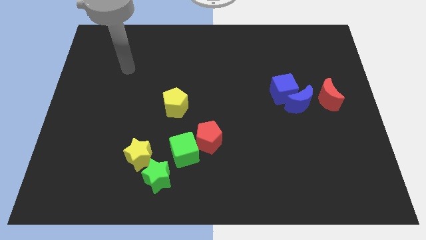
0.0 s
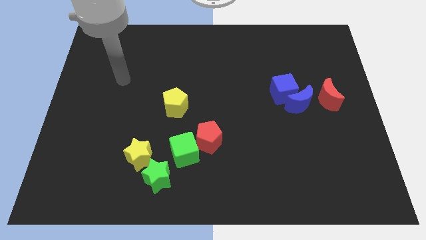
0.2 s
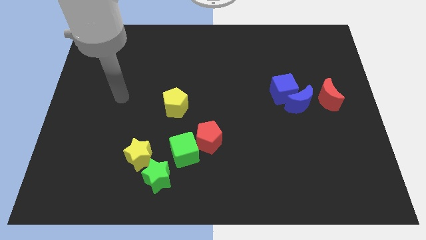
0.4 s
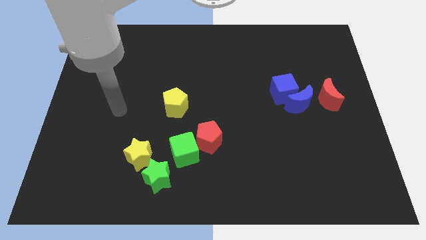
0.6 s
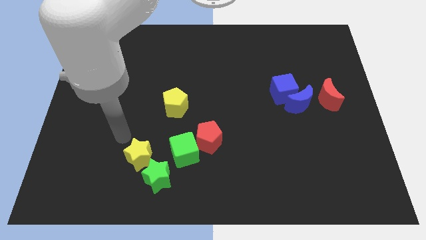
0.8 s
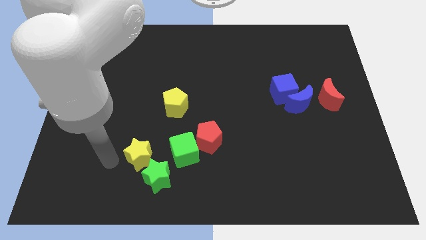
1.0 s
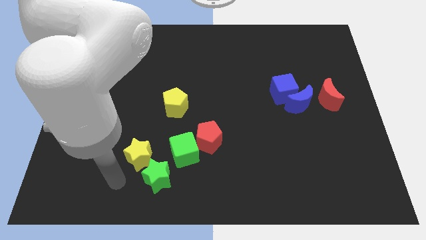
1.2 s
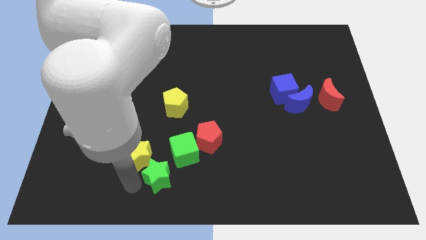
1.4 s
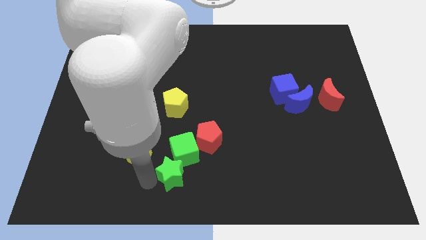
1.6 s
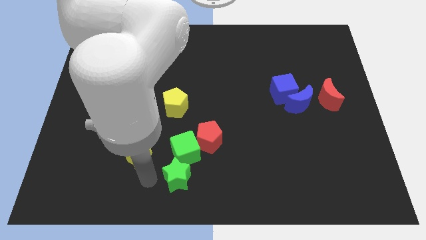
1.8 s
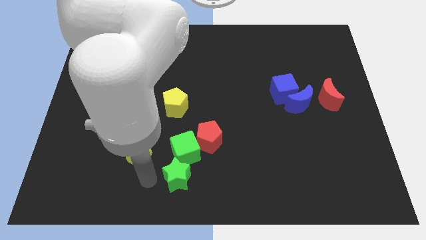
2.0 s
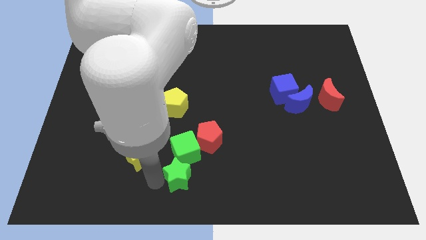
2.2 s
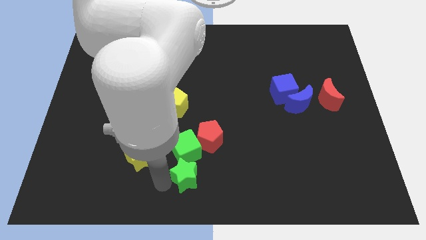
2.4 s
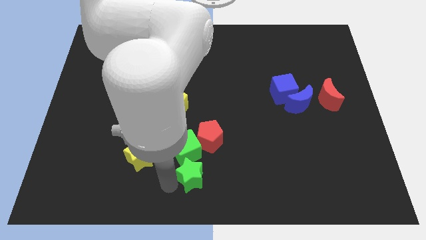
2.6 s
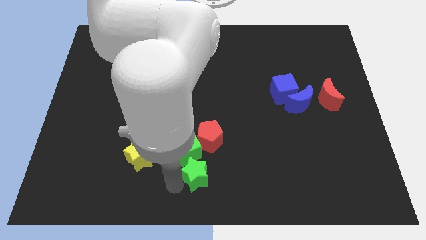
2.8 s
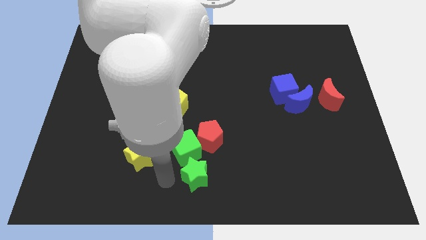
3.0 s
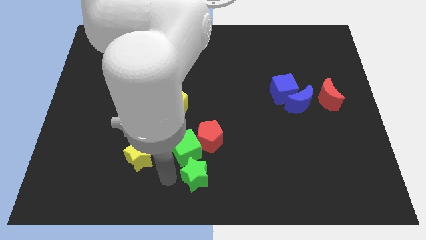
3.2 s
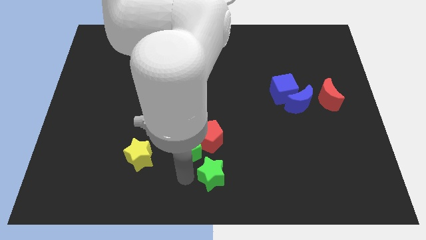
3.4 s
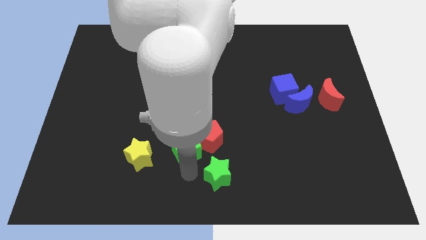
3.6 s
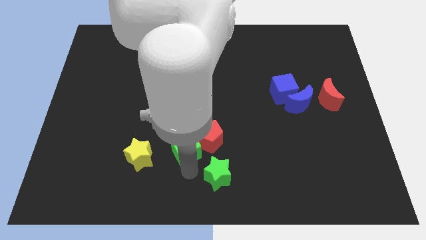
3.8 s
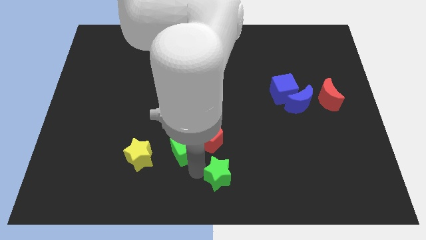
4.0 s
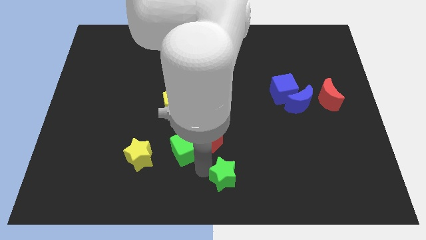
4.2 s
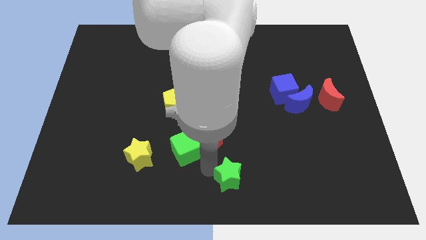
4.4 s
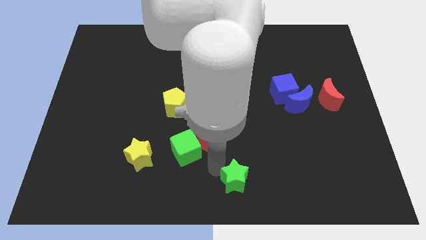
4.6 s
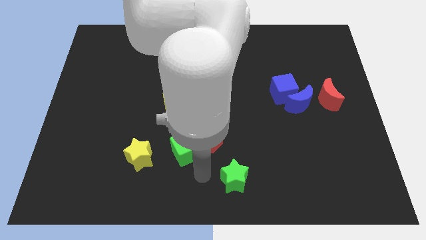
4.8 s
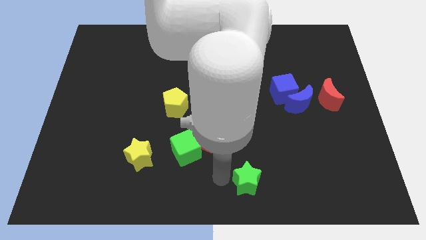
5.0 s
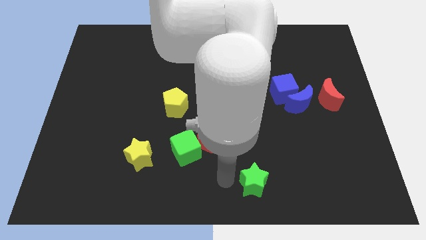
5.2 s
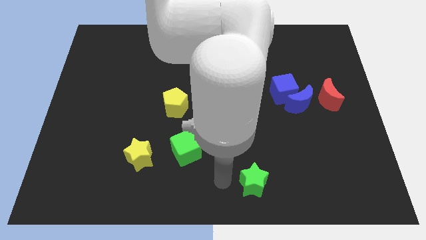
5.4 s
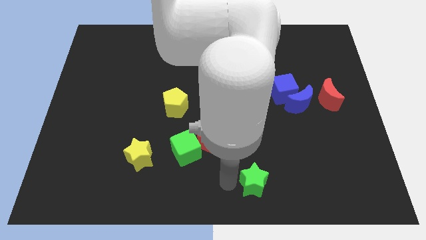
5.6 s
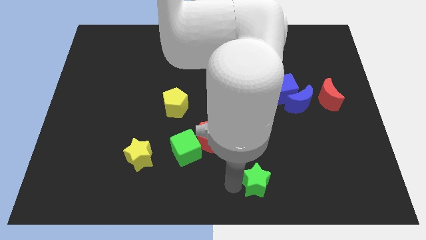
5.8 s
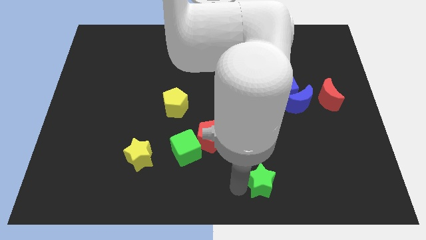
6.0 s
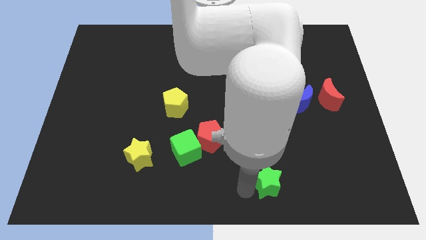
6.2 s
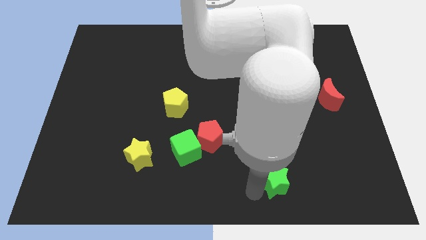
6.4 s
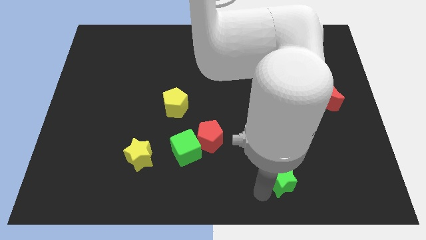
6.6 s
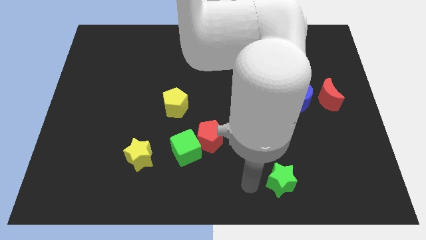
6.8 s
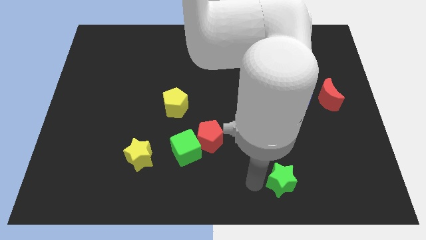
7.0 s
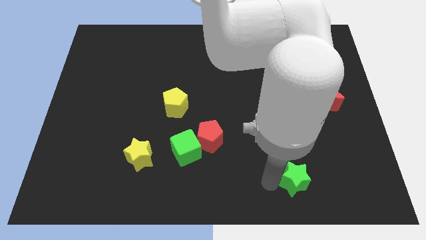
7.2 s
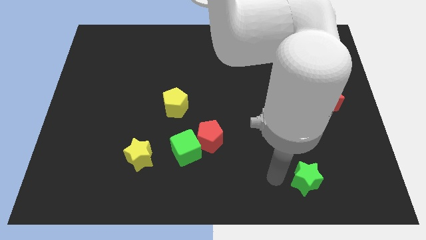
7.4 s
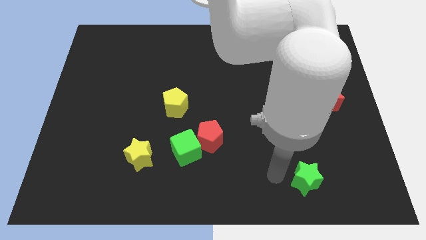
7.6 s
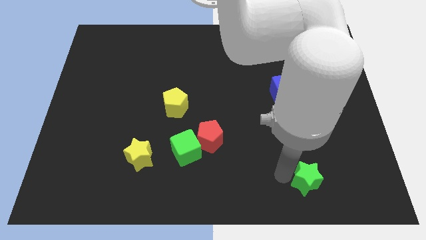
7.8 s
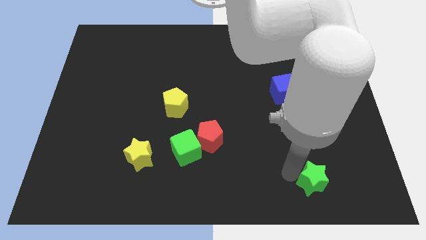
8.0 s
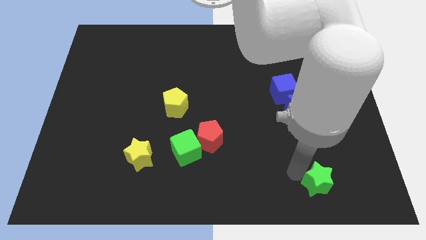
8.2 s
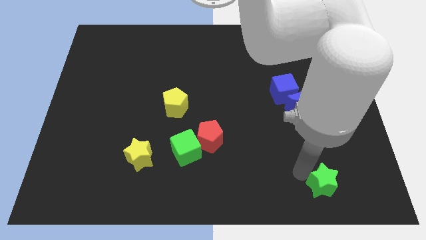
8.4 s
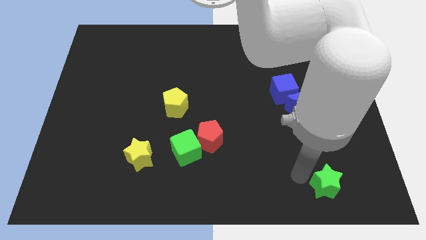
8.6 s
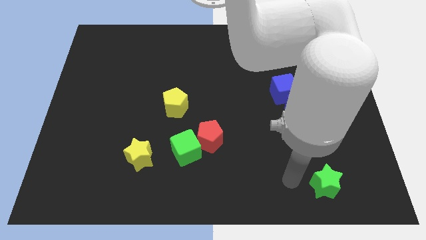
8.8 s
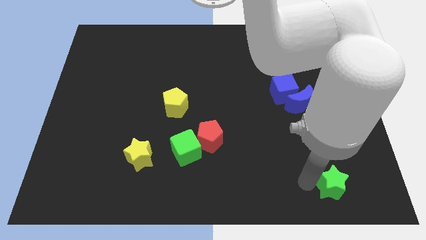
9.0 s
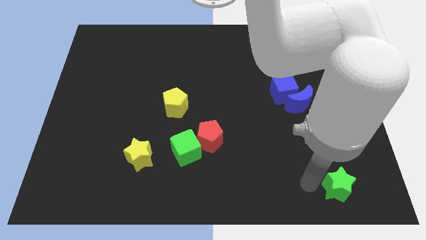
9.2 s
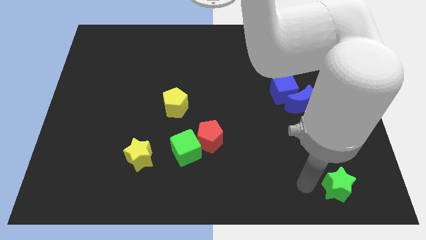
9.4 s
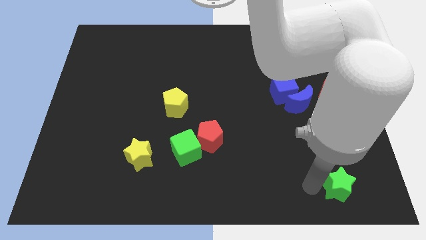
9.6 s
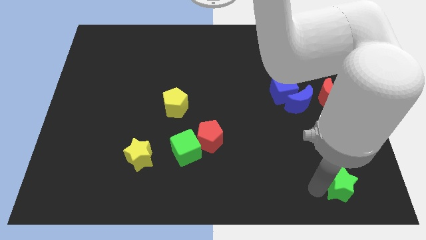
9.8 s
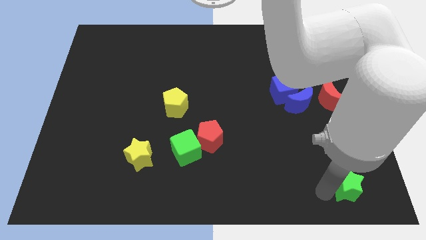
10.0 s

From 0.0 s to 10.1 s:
put the green star to the bottom right corner

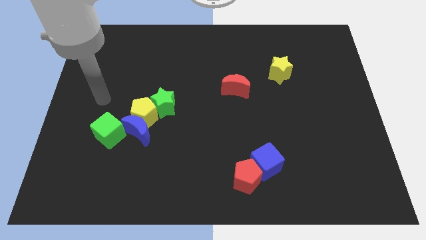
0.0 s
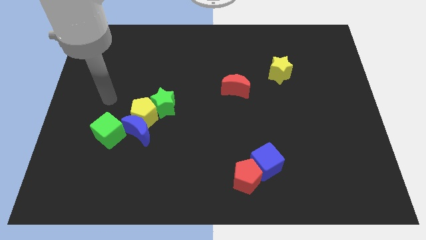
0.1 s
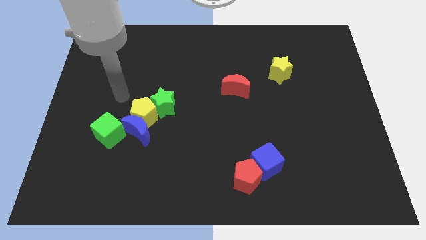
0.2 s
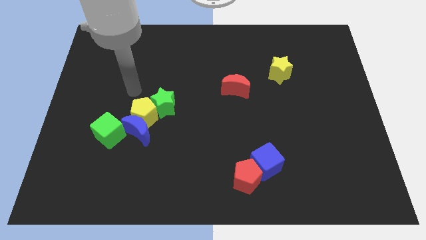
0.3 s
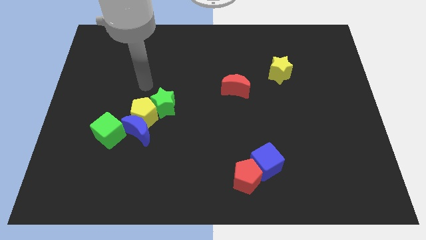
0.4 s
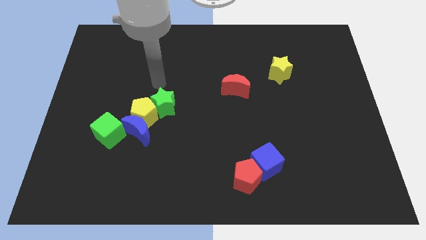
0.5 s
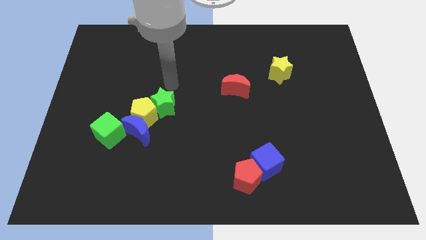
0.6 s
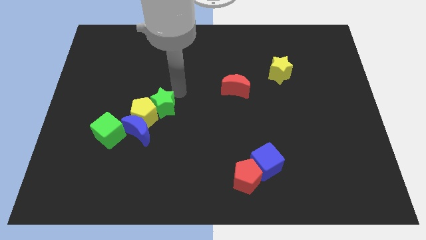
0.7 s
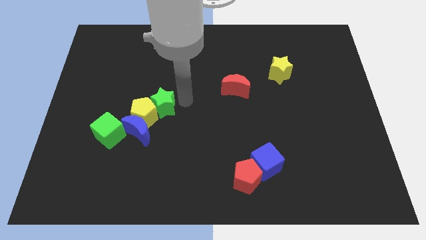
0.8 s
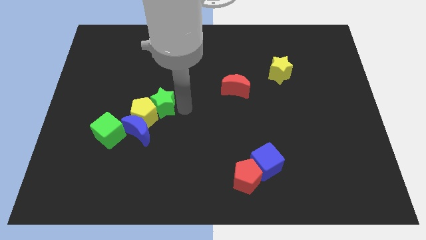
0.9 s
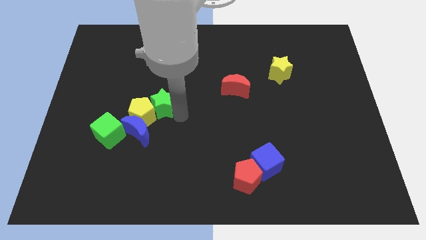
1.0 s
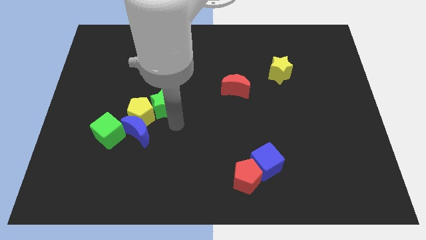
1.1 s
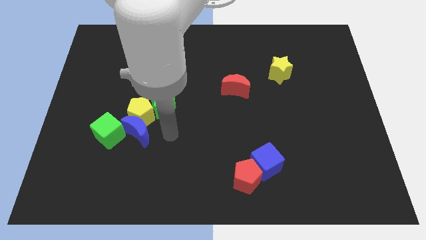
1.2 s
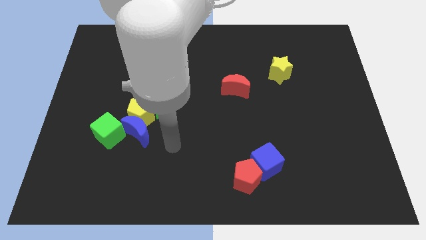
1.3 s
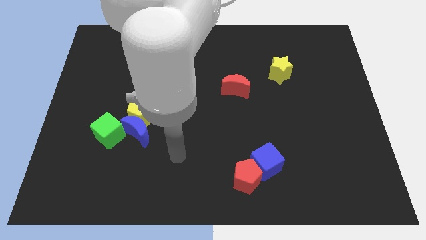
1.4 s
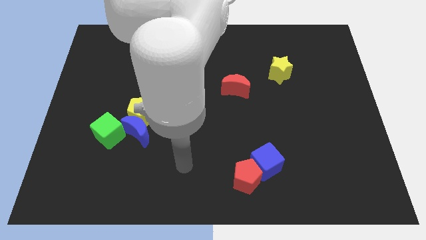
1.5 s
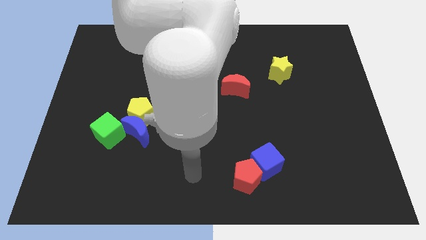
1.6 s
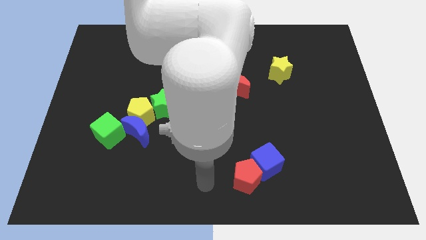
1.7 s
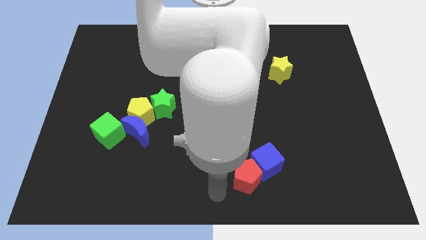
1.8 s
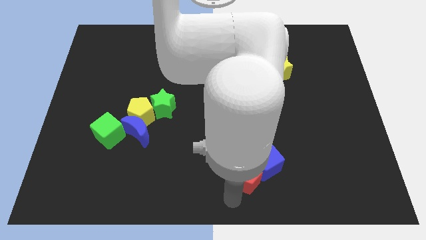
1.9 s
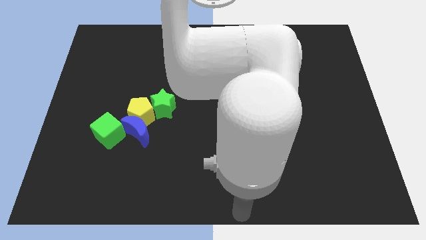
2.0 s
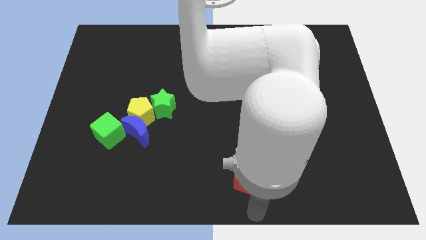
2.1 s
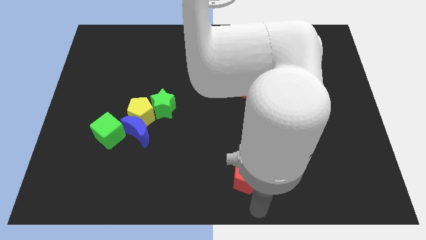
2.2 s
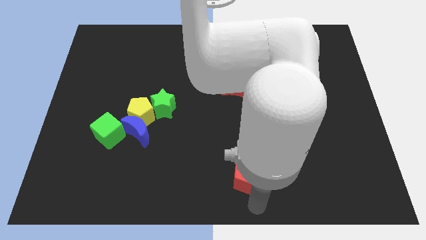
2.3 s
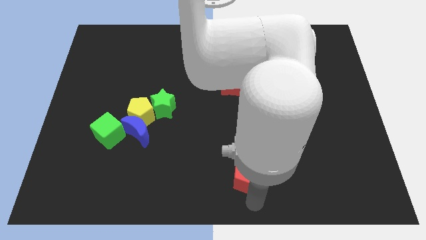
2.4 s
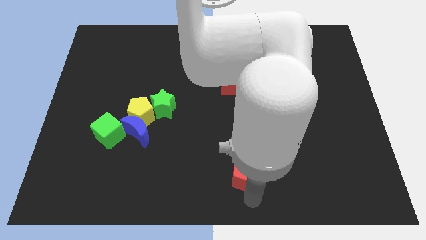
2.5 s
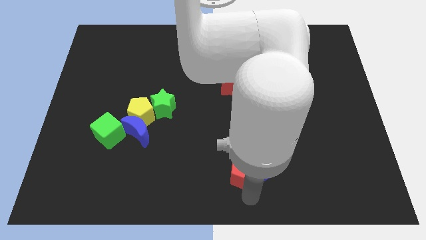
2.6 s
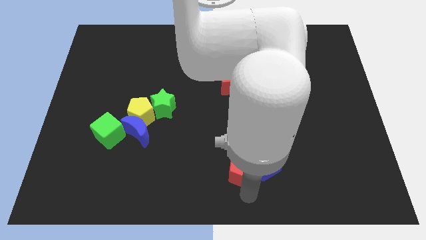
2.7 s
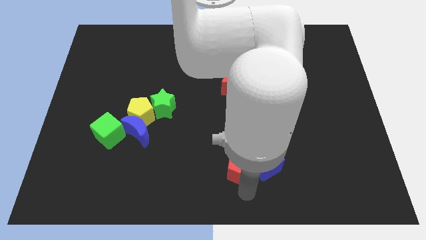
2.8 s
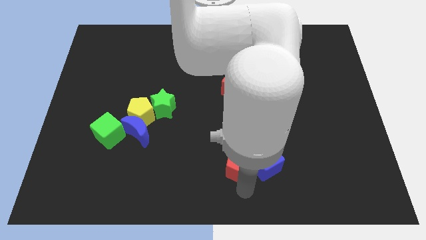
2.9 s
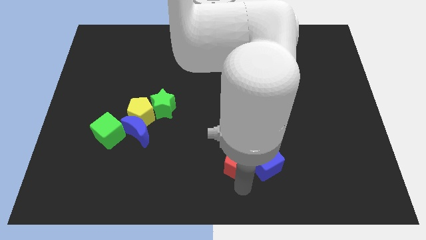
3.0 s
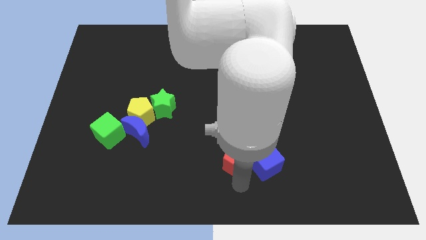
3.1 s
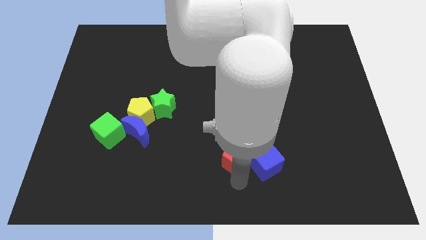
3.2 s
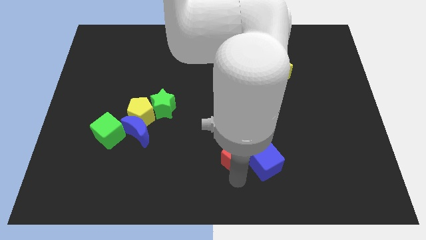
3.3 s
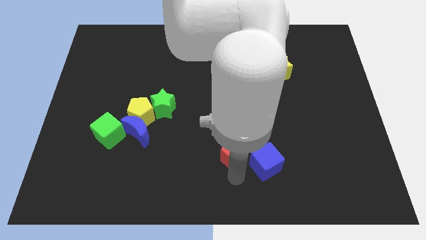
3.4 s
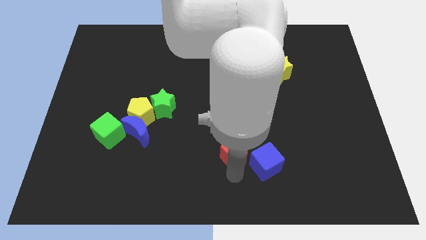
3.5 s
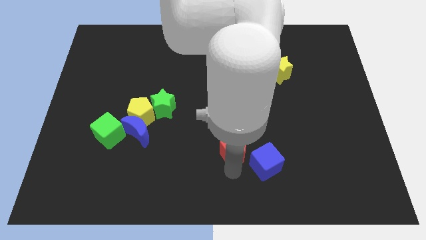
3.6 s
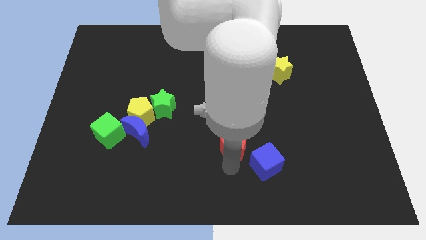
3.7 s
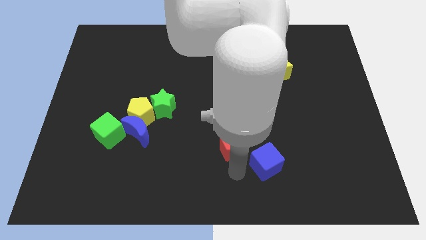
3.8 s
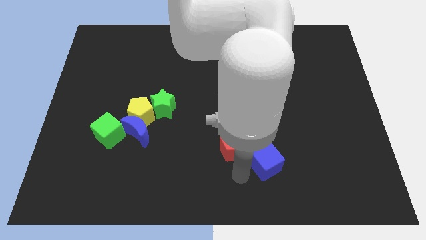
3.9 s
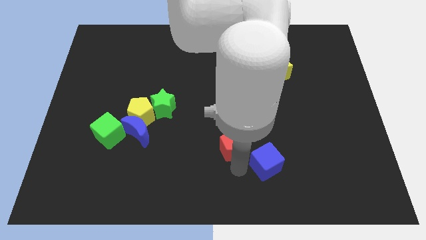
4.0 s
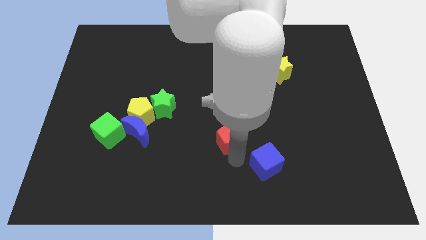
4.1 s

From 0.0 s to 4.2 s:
push the red pentagon to the center of the board
